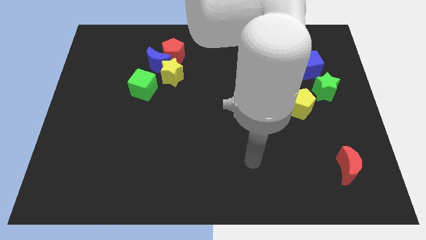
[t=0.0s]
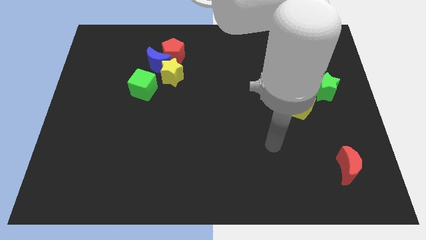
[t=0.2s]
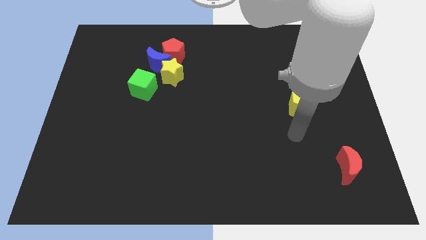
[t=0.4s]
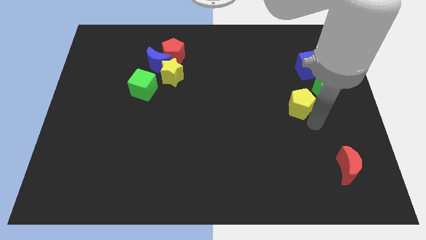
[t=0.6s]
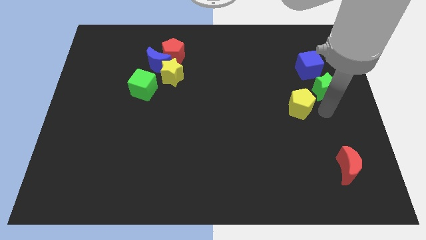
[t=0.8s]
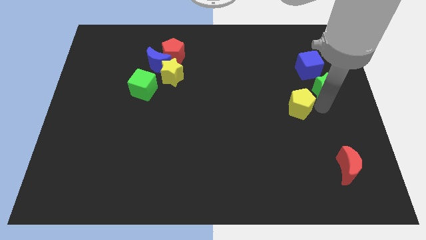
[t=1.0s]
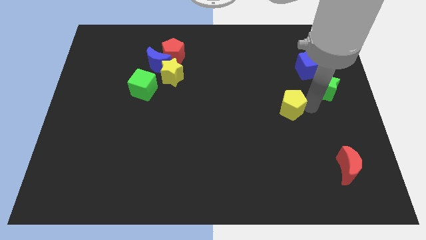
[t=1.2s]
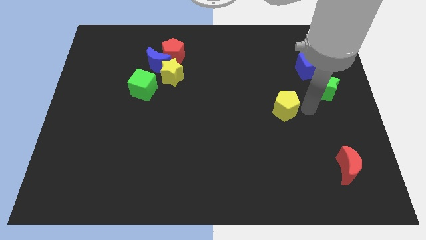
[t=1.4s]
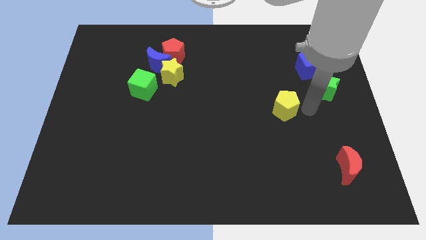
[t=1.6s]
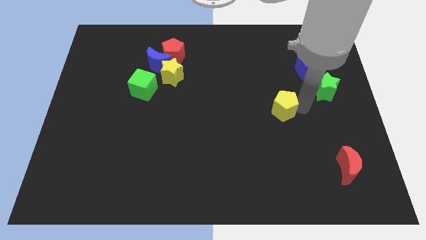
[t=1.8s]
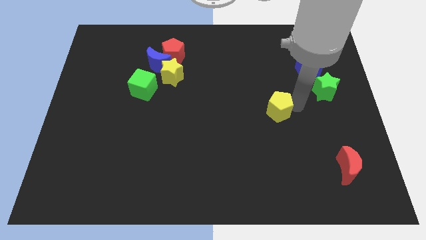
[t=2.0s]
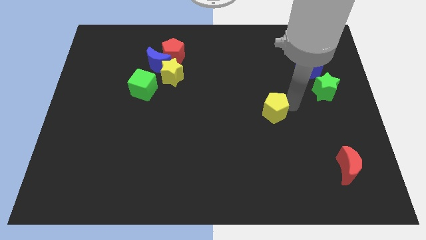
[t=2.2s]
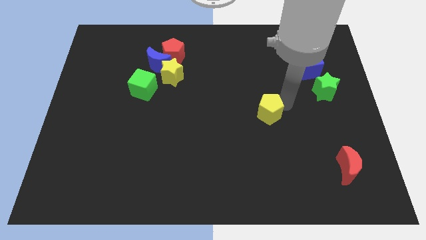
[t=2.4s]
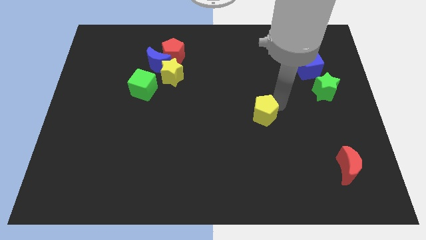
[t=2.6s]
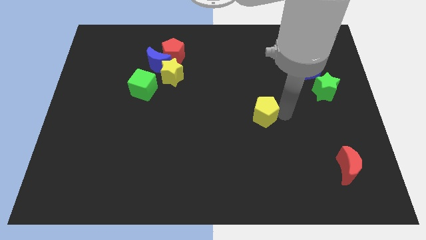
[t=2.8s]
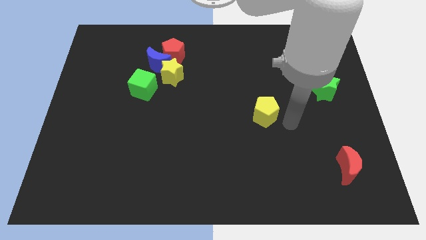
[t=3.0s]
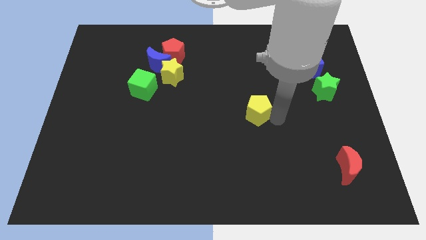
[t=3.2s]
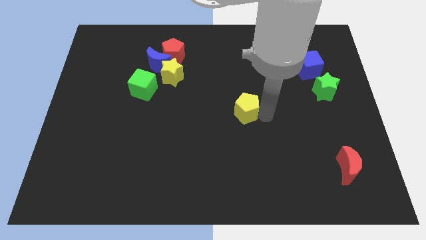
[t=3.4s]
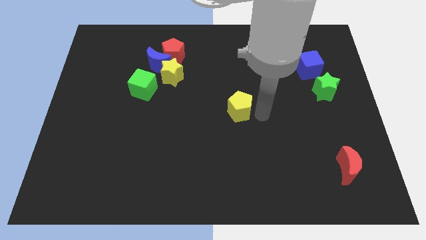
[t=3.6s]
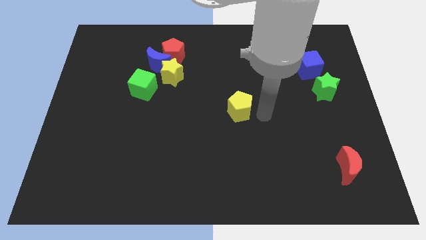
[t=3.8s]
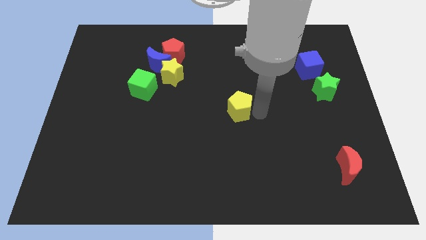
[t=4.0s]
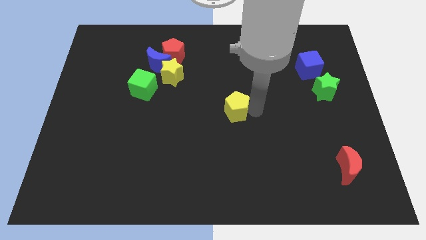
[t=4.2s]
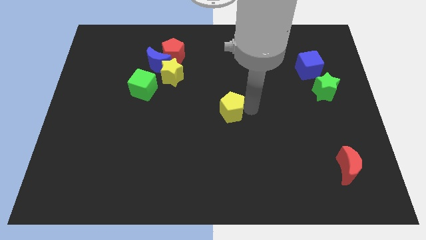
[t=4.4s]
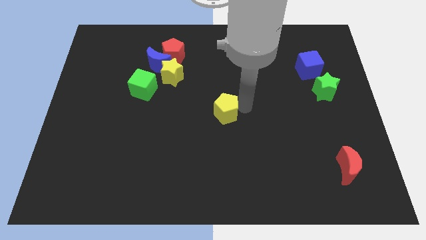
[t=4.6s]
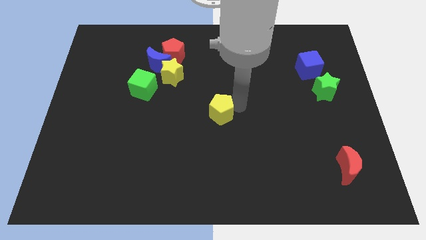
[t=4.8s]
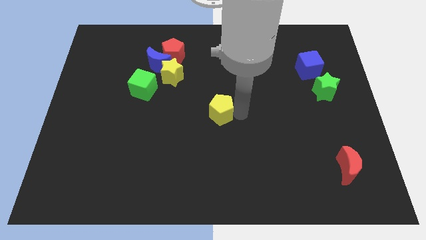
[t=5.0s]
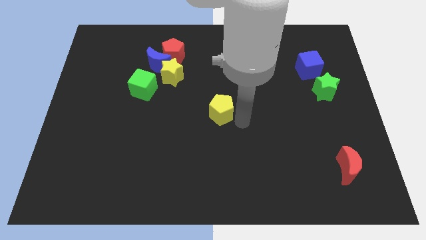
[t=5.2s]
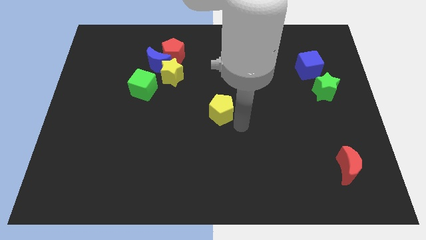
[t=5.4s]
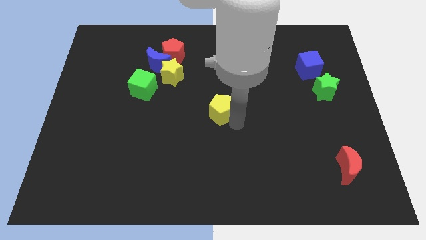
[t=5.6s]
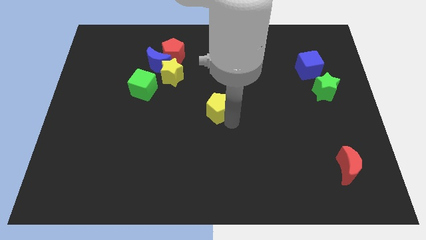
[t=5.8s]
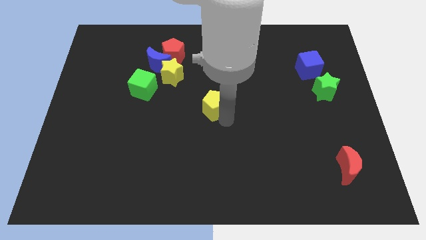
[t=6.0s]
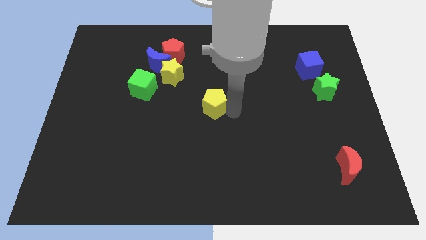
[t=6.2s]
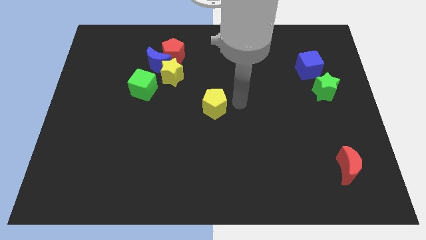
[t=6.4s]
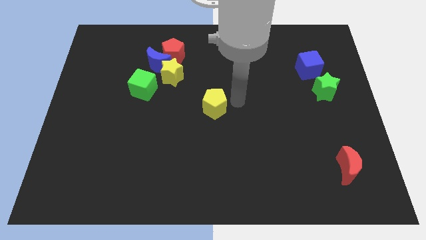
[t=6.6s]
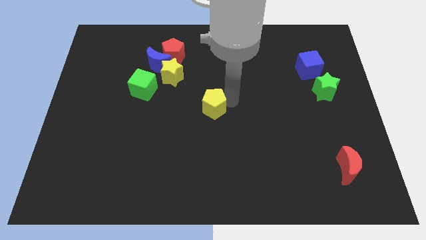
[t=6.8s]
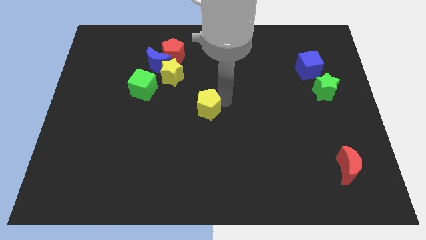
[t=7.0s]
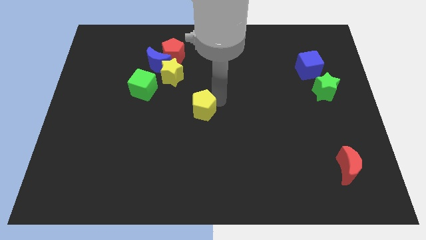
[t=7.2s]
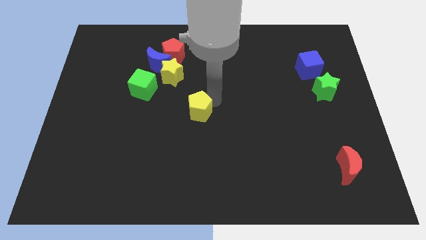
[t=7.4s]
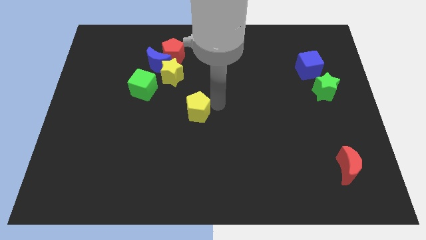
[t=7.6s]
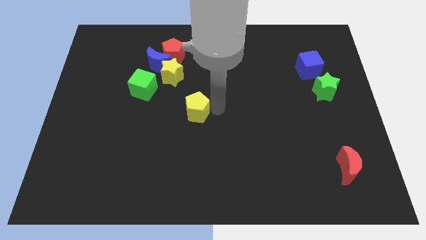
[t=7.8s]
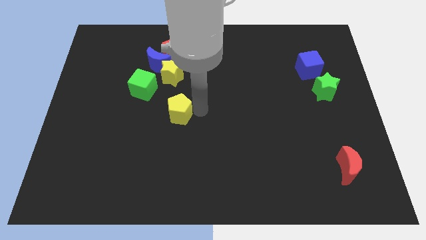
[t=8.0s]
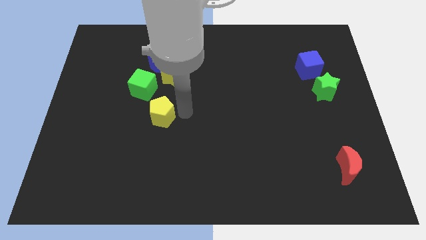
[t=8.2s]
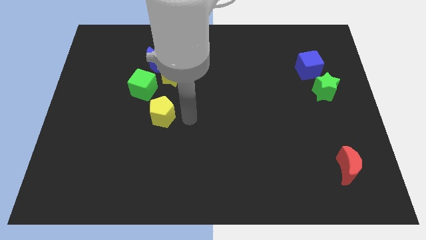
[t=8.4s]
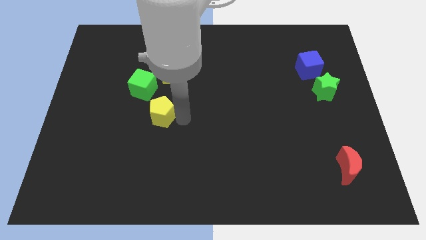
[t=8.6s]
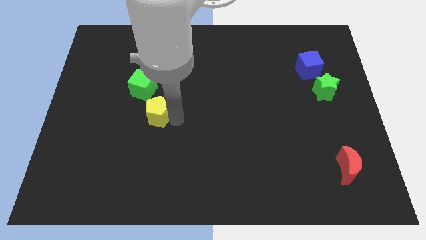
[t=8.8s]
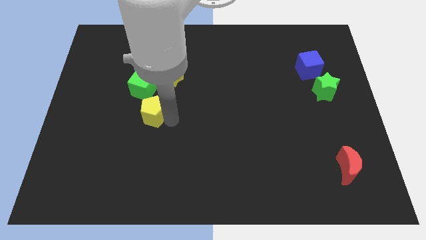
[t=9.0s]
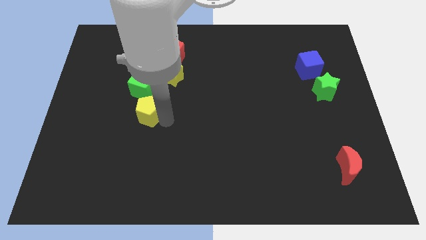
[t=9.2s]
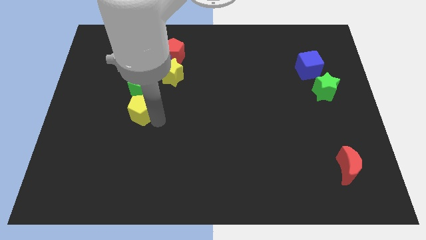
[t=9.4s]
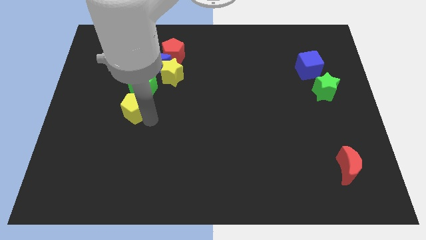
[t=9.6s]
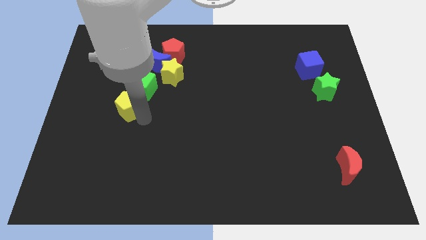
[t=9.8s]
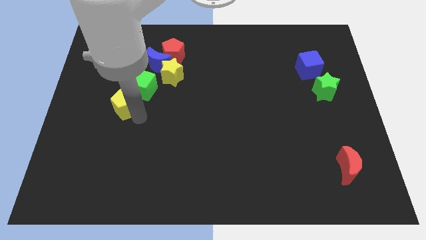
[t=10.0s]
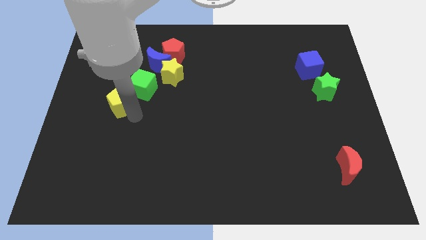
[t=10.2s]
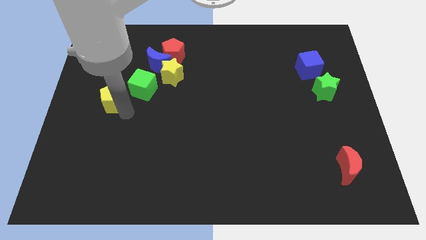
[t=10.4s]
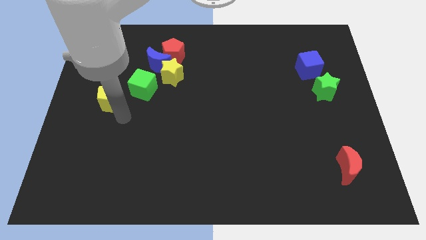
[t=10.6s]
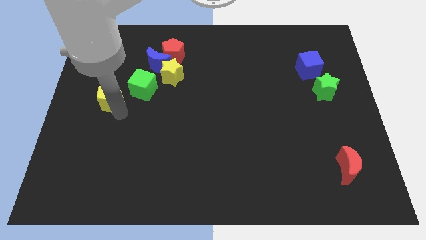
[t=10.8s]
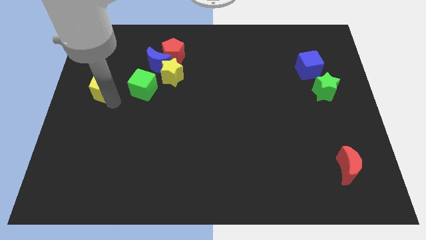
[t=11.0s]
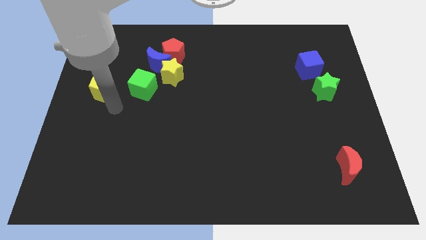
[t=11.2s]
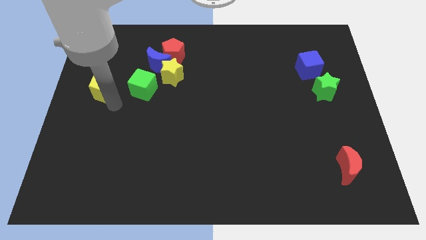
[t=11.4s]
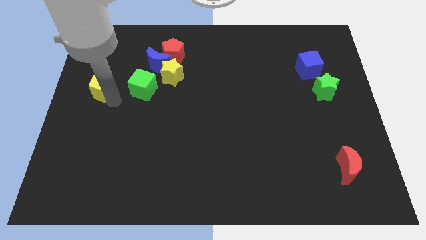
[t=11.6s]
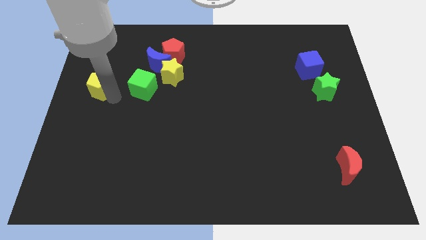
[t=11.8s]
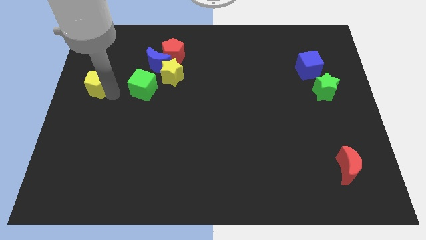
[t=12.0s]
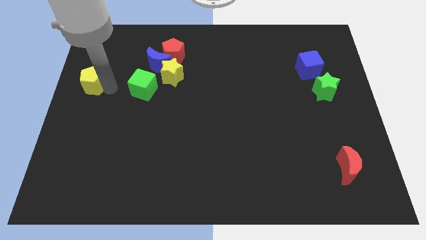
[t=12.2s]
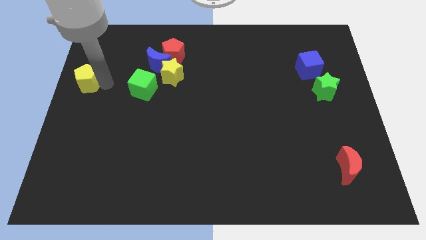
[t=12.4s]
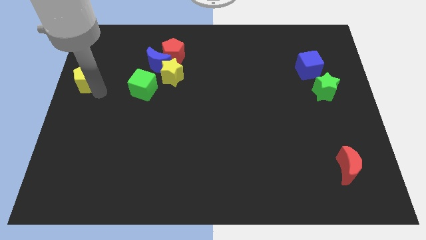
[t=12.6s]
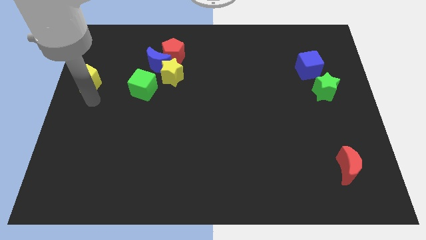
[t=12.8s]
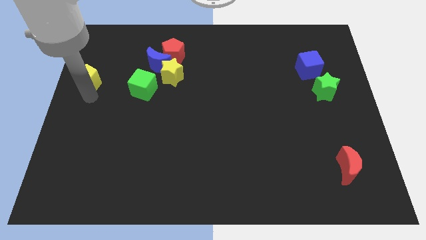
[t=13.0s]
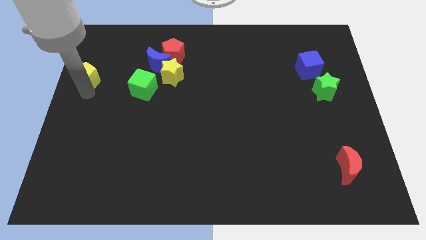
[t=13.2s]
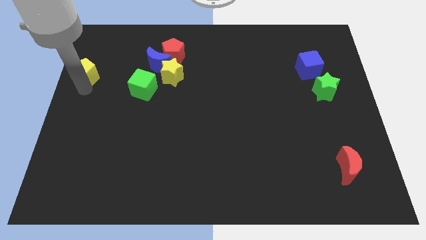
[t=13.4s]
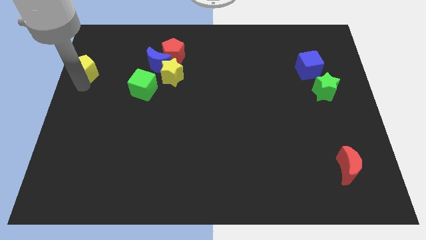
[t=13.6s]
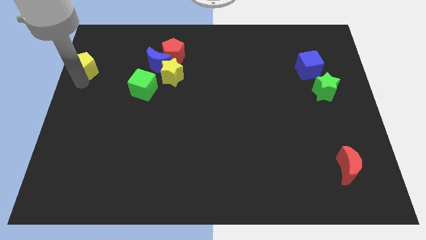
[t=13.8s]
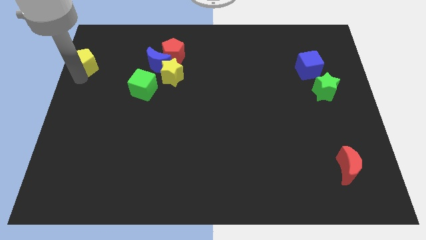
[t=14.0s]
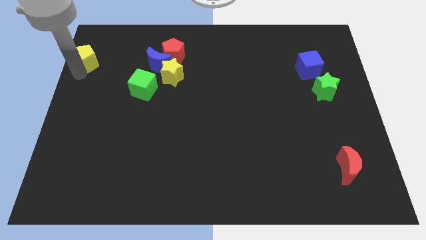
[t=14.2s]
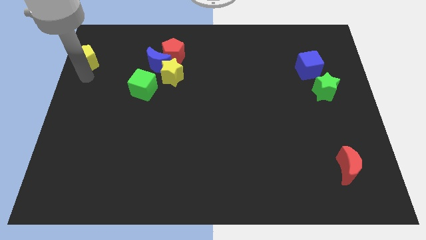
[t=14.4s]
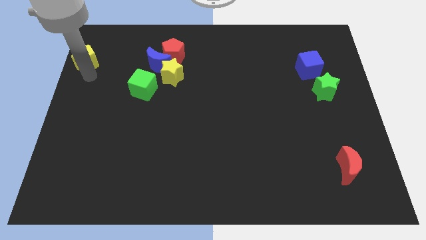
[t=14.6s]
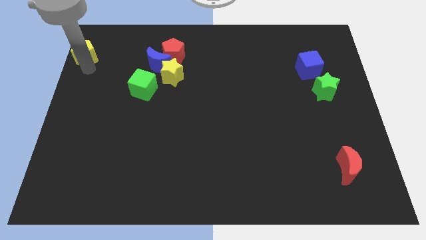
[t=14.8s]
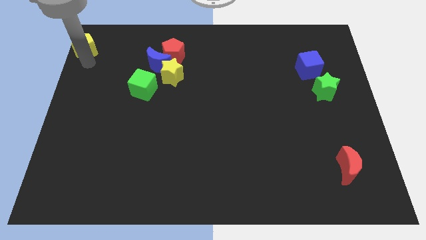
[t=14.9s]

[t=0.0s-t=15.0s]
put the yellow pentagon to the top left of the board

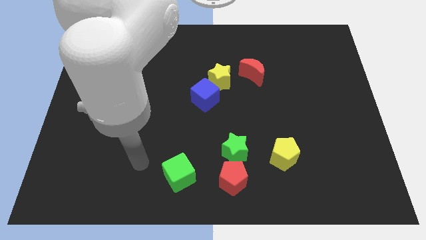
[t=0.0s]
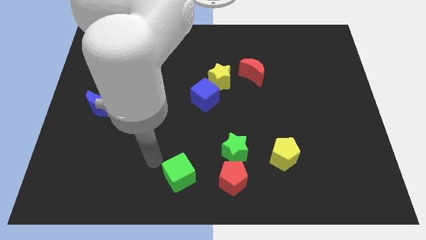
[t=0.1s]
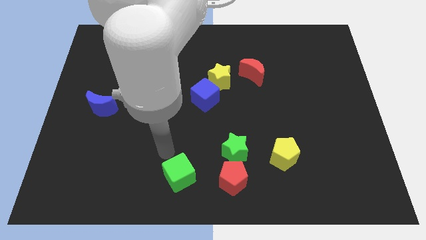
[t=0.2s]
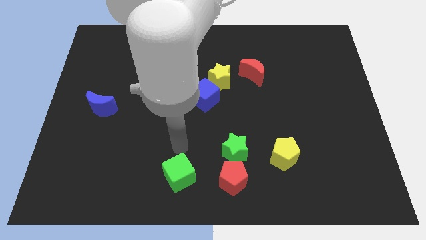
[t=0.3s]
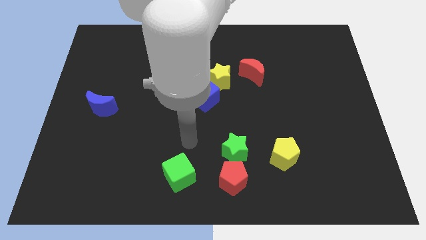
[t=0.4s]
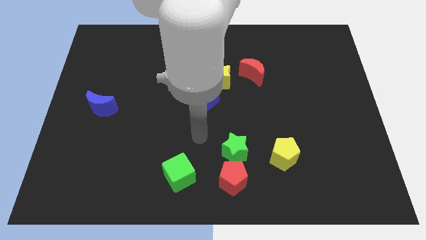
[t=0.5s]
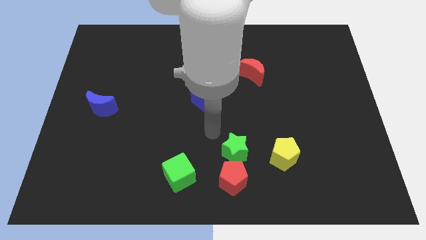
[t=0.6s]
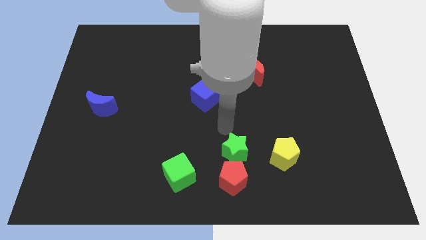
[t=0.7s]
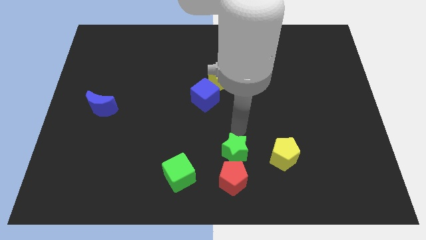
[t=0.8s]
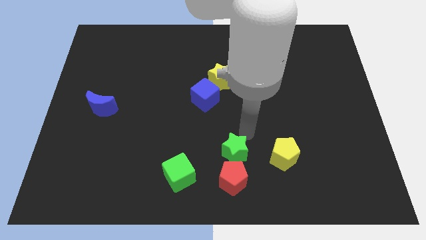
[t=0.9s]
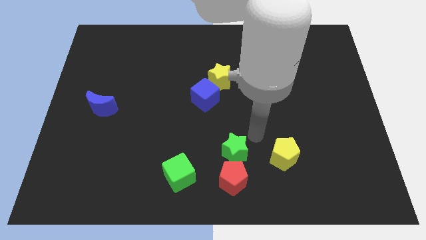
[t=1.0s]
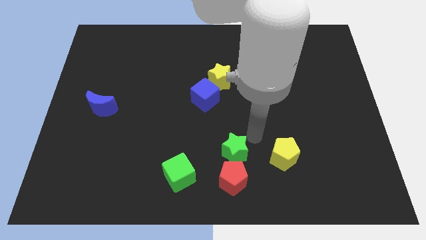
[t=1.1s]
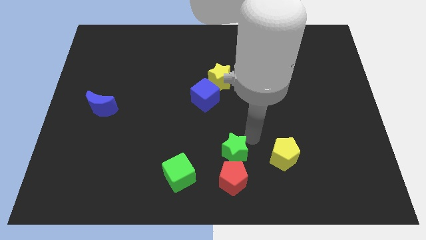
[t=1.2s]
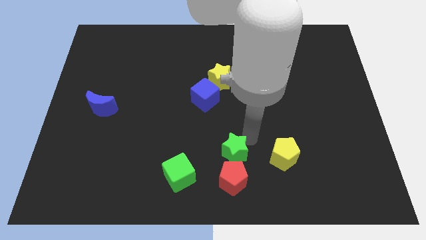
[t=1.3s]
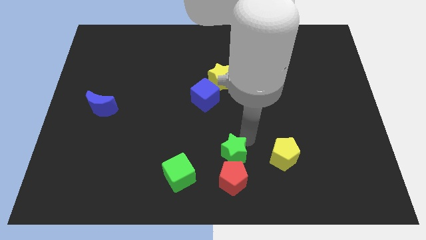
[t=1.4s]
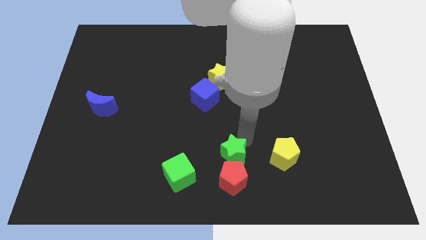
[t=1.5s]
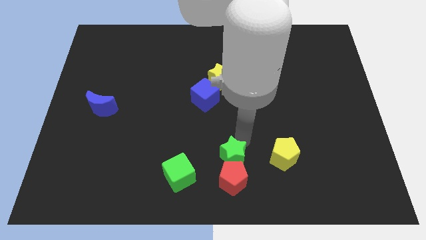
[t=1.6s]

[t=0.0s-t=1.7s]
put the green star to the bottom
